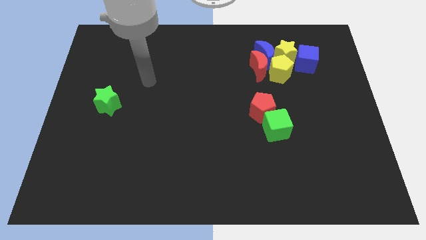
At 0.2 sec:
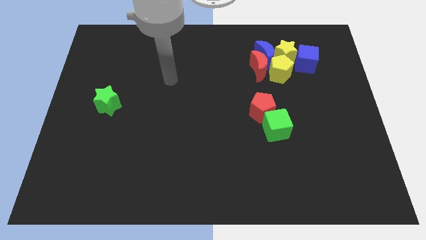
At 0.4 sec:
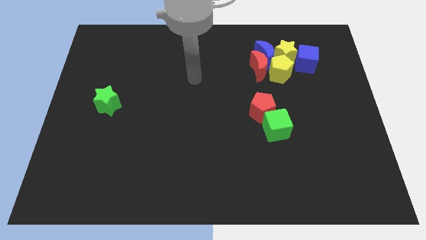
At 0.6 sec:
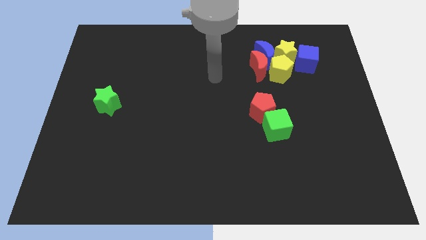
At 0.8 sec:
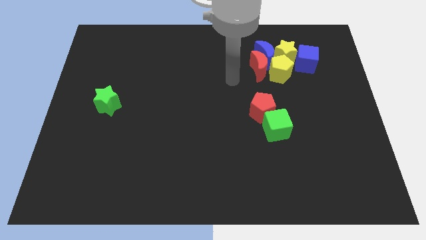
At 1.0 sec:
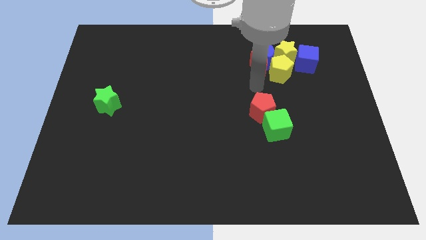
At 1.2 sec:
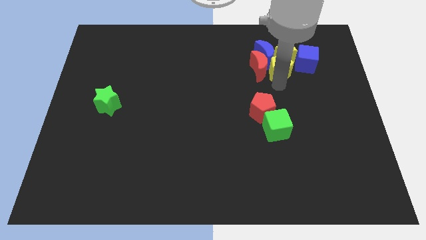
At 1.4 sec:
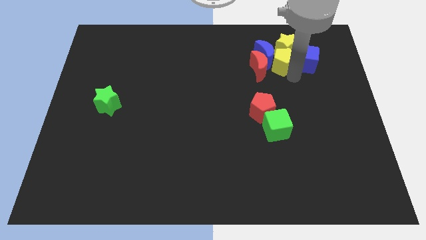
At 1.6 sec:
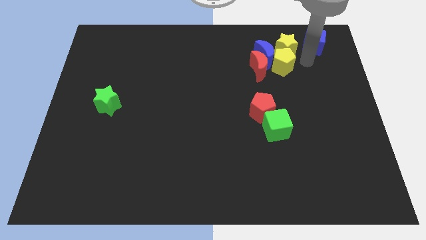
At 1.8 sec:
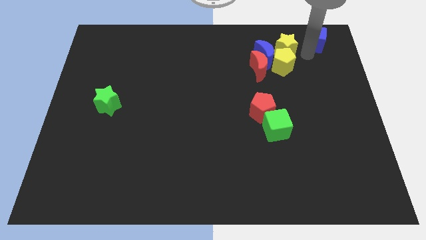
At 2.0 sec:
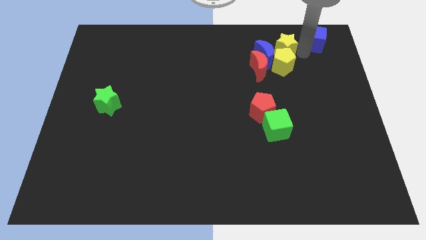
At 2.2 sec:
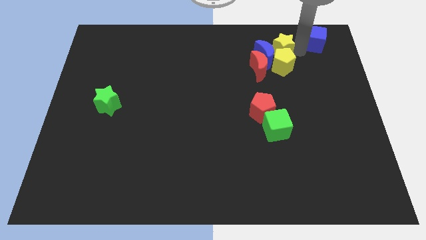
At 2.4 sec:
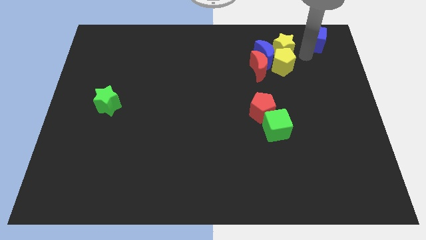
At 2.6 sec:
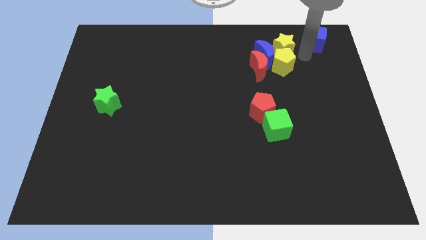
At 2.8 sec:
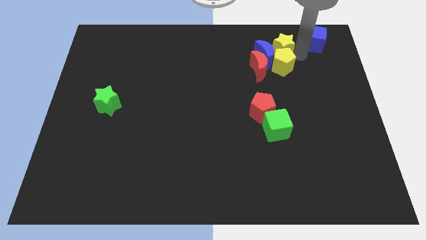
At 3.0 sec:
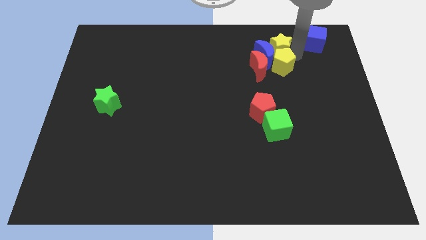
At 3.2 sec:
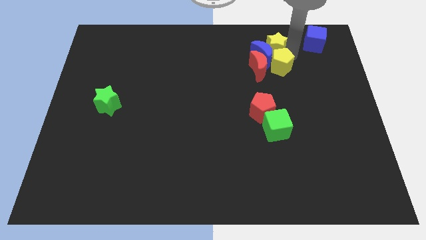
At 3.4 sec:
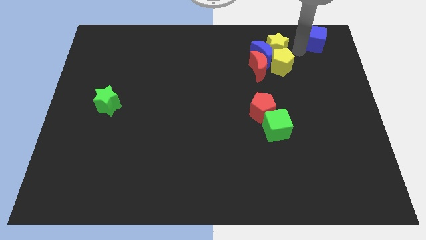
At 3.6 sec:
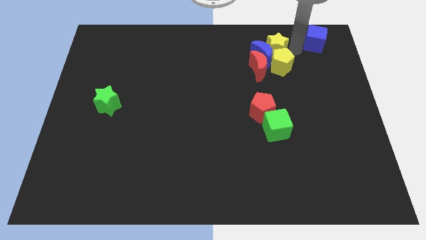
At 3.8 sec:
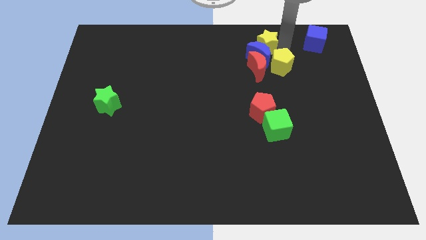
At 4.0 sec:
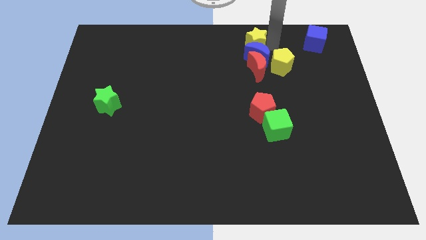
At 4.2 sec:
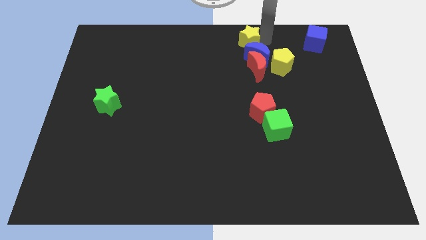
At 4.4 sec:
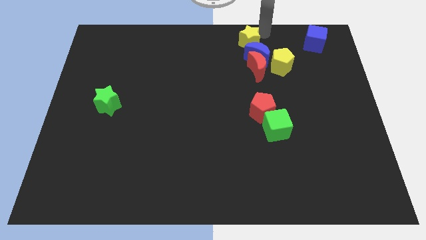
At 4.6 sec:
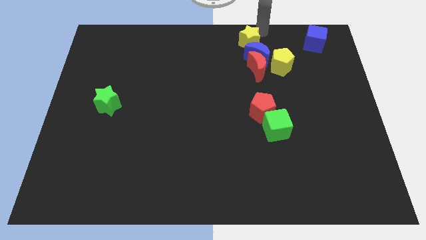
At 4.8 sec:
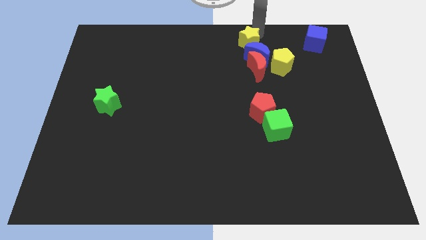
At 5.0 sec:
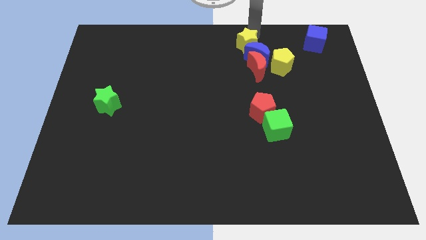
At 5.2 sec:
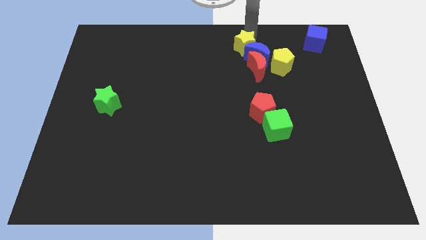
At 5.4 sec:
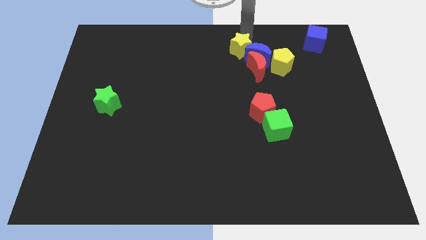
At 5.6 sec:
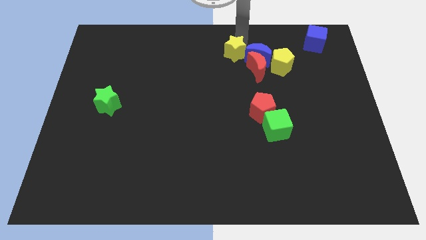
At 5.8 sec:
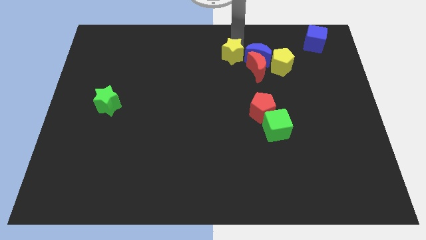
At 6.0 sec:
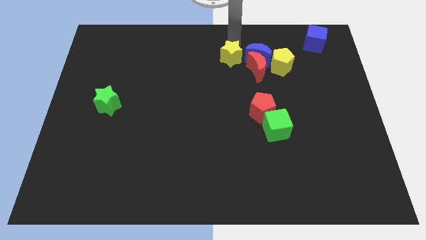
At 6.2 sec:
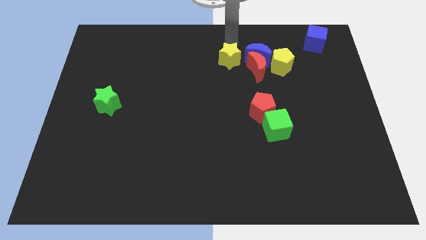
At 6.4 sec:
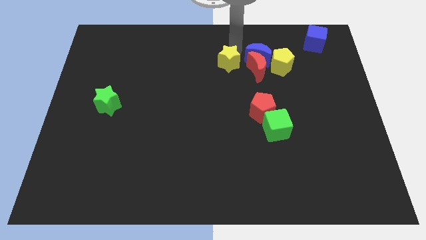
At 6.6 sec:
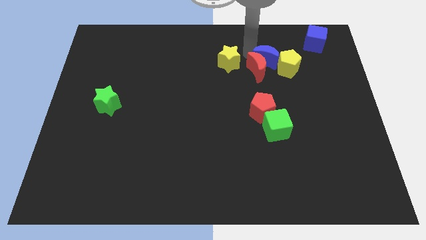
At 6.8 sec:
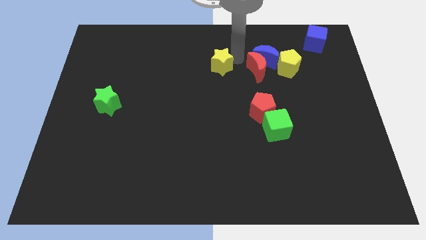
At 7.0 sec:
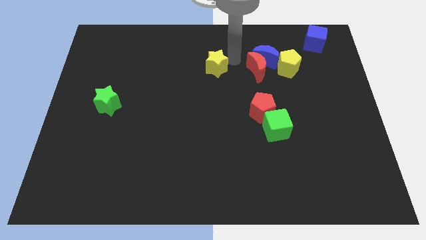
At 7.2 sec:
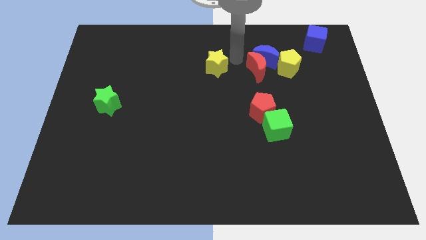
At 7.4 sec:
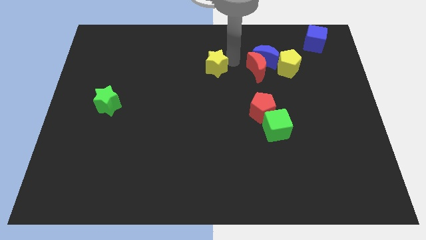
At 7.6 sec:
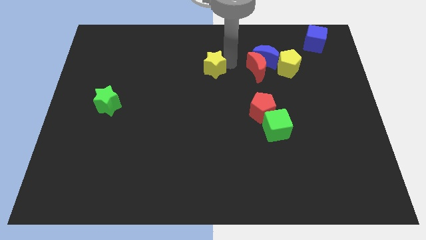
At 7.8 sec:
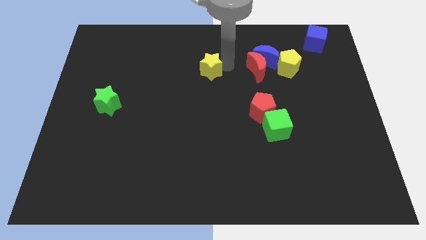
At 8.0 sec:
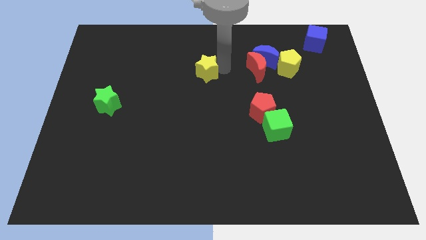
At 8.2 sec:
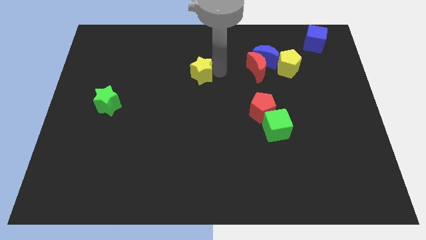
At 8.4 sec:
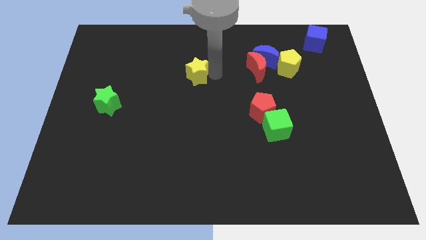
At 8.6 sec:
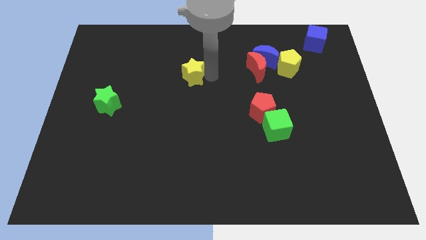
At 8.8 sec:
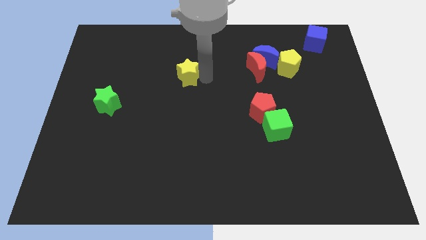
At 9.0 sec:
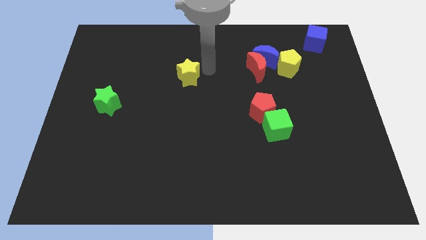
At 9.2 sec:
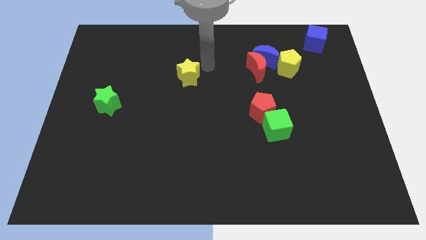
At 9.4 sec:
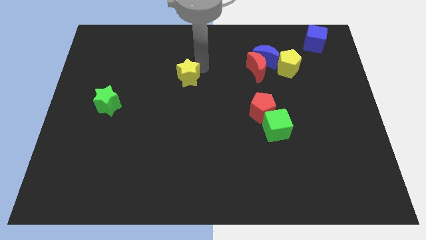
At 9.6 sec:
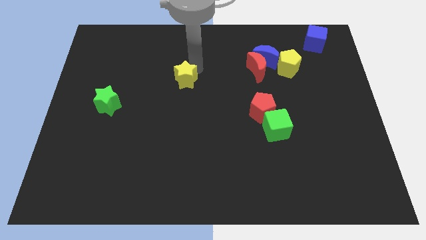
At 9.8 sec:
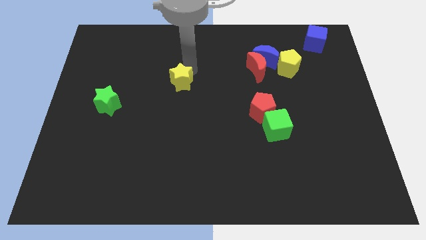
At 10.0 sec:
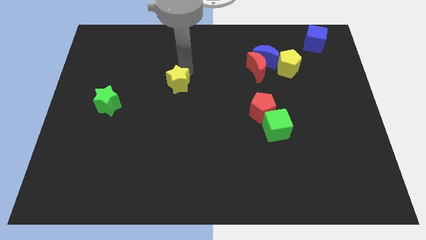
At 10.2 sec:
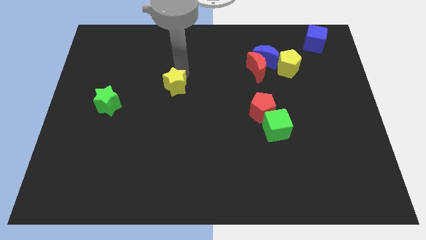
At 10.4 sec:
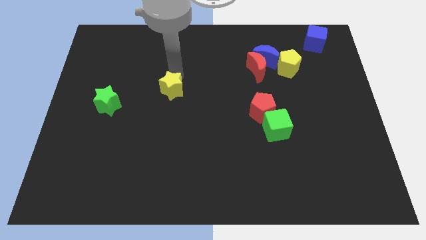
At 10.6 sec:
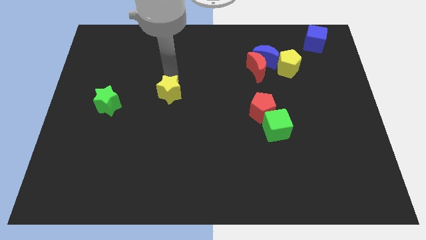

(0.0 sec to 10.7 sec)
put the yellow star just right of the green star

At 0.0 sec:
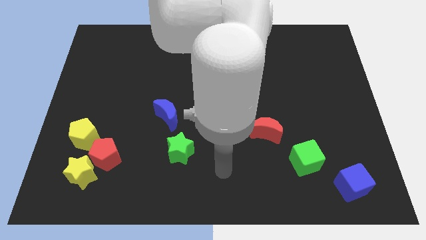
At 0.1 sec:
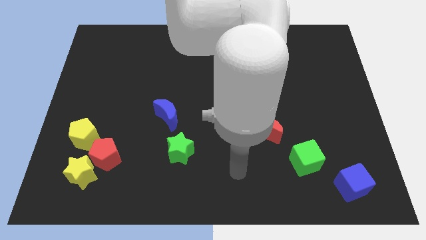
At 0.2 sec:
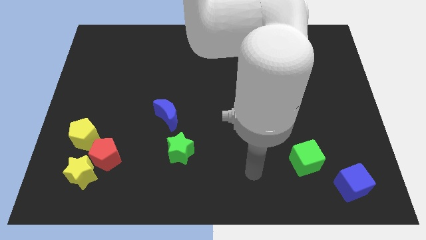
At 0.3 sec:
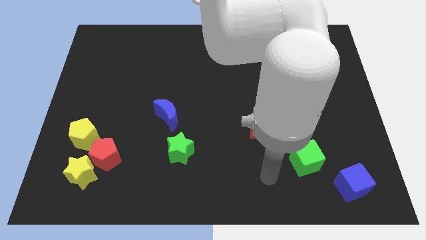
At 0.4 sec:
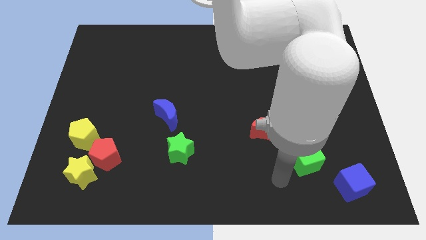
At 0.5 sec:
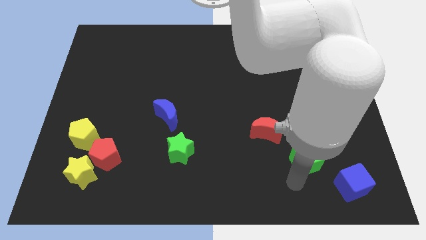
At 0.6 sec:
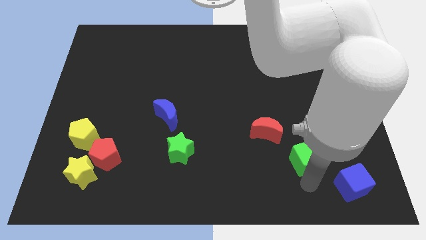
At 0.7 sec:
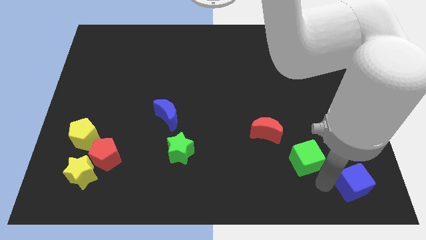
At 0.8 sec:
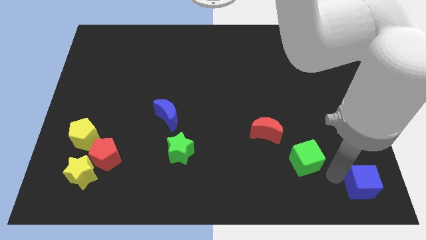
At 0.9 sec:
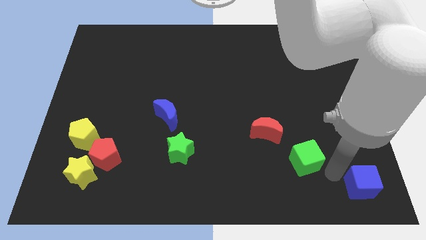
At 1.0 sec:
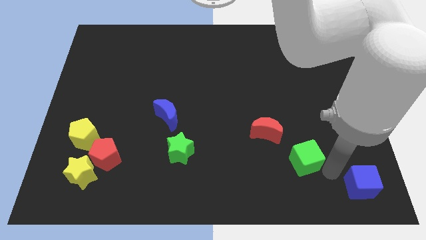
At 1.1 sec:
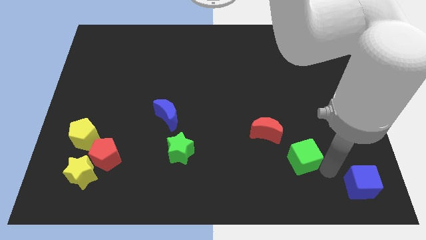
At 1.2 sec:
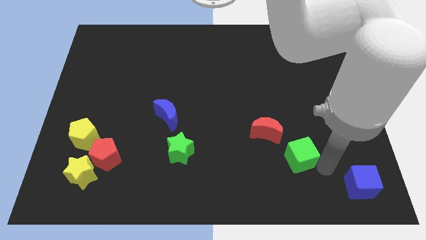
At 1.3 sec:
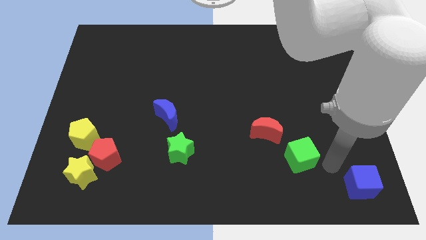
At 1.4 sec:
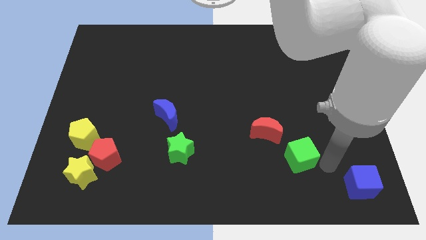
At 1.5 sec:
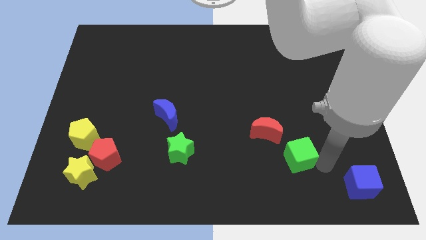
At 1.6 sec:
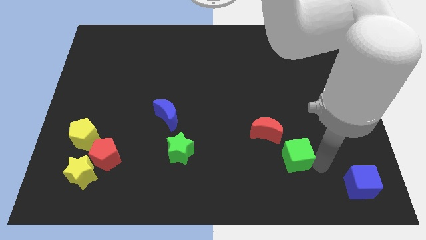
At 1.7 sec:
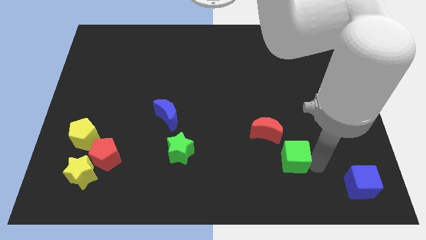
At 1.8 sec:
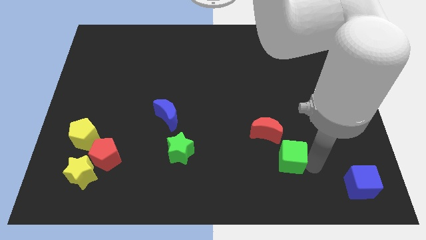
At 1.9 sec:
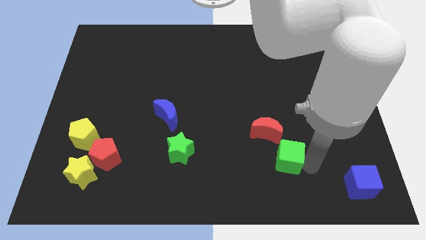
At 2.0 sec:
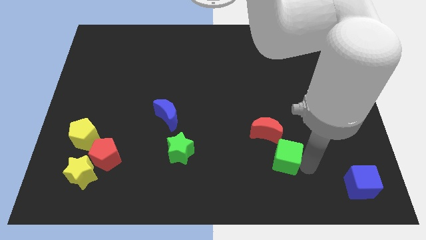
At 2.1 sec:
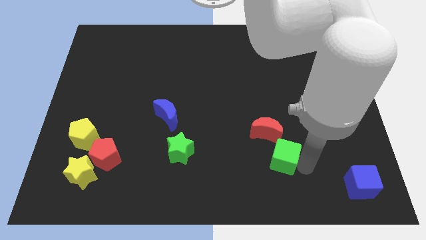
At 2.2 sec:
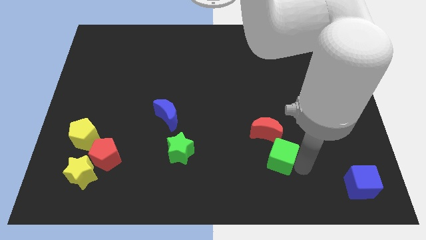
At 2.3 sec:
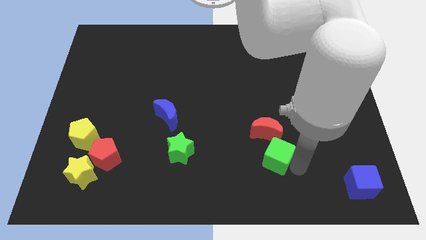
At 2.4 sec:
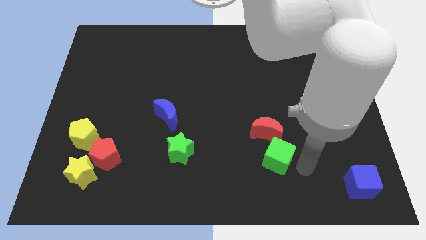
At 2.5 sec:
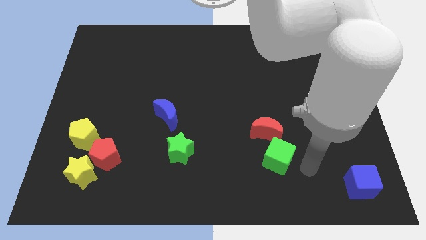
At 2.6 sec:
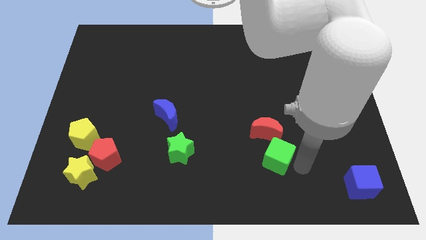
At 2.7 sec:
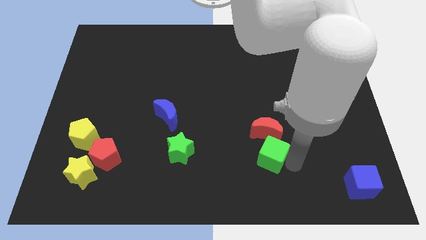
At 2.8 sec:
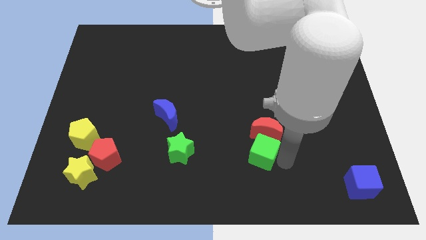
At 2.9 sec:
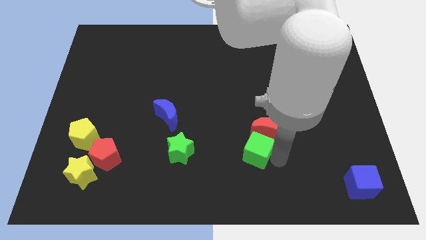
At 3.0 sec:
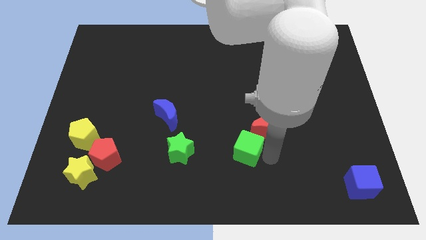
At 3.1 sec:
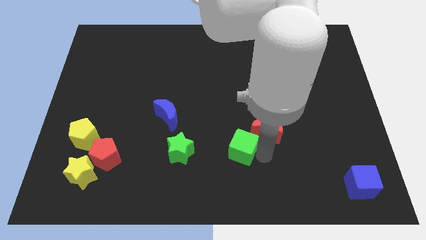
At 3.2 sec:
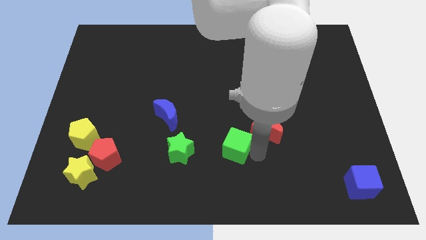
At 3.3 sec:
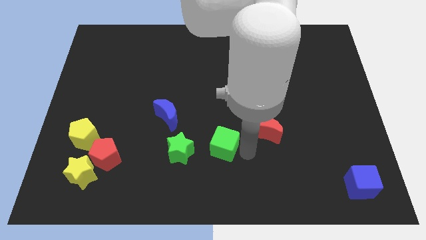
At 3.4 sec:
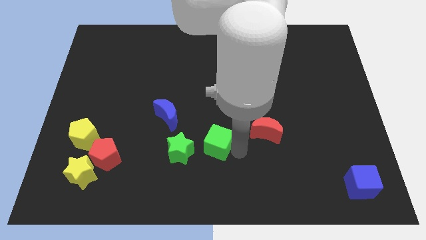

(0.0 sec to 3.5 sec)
move the green cube diagonally up and to the right of the green star
